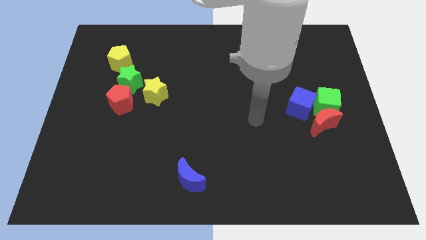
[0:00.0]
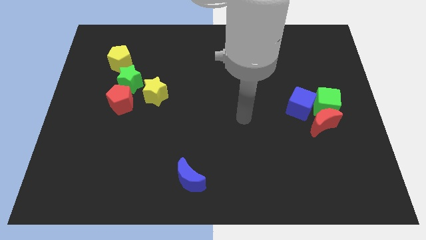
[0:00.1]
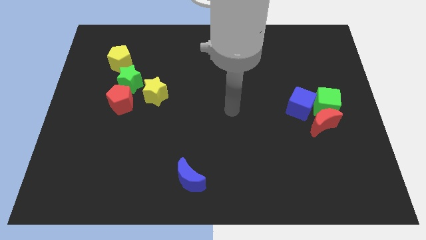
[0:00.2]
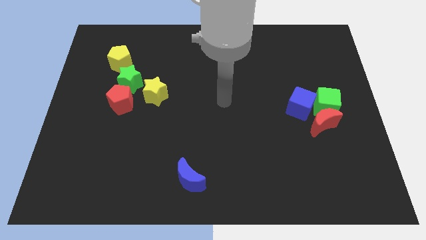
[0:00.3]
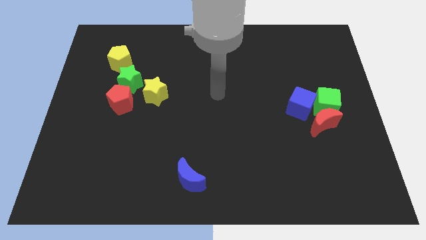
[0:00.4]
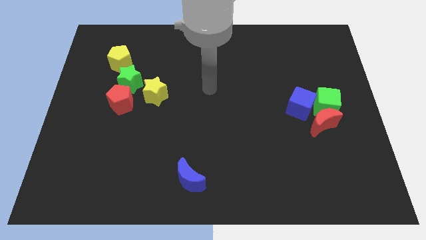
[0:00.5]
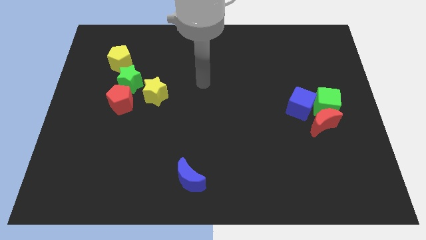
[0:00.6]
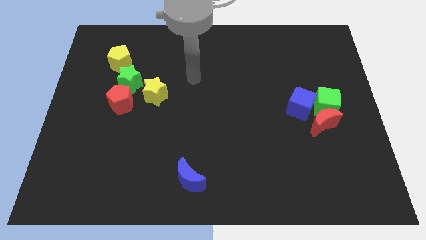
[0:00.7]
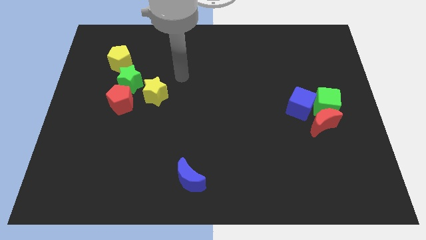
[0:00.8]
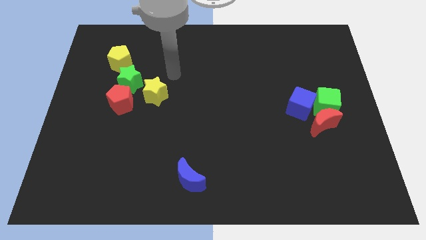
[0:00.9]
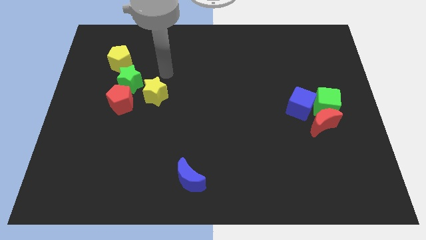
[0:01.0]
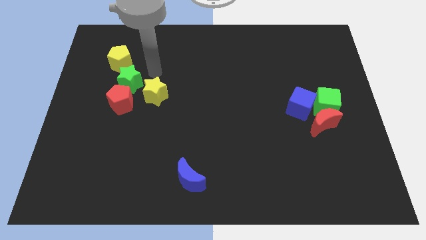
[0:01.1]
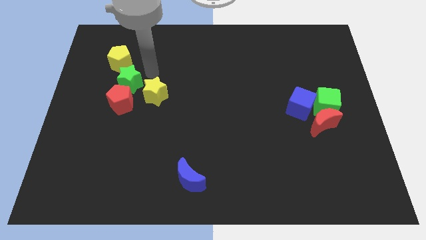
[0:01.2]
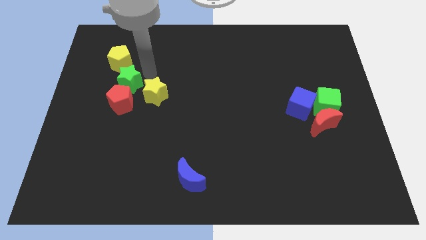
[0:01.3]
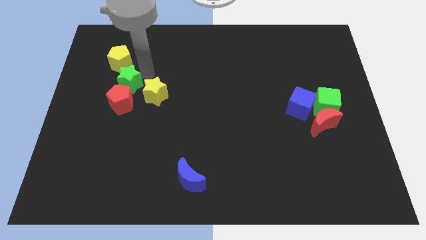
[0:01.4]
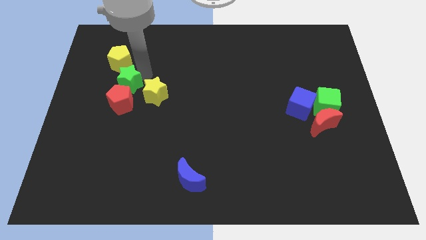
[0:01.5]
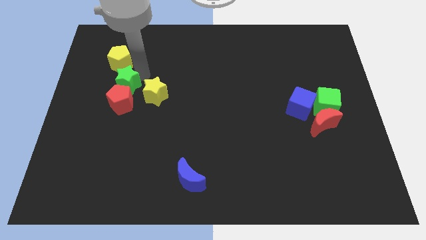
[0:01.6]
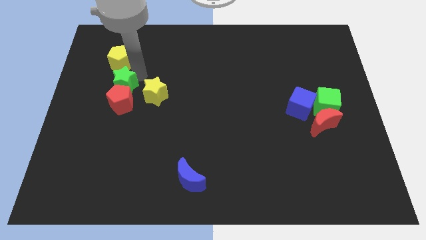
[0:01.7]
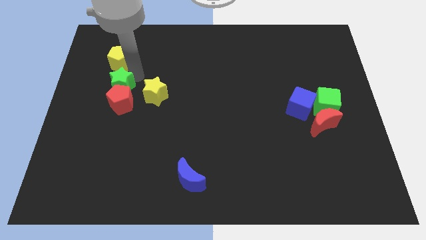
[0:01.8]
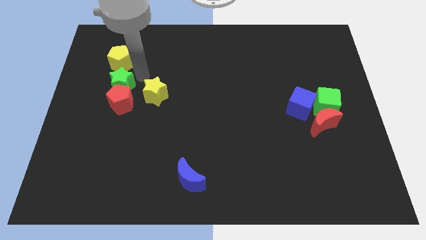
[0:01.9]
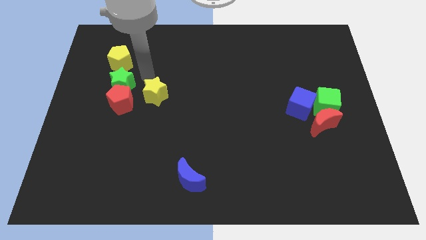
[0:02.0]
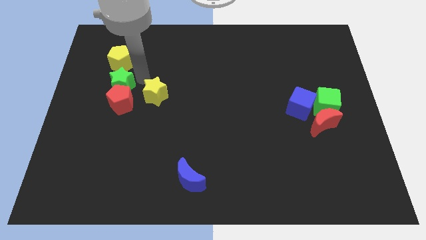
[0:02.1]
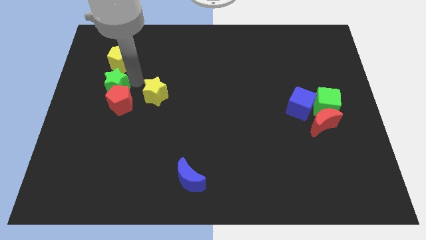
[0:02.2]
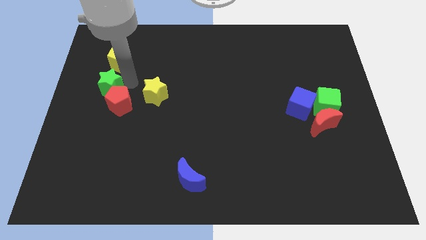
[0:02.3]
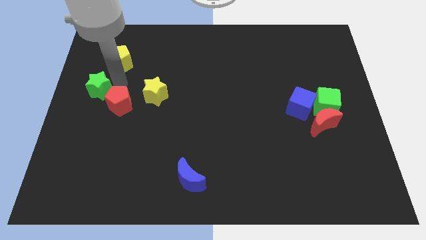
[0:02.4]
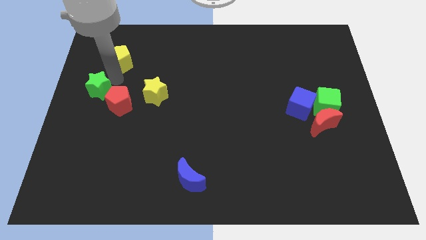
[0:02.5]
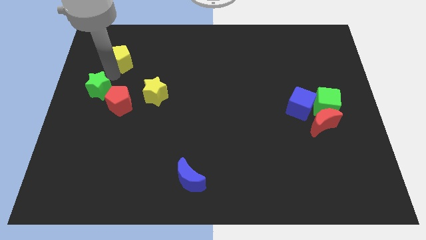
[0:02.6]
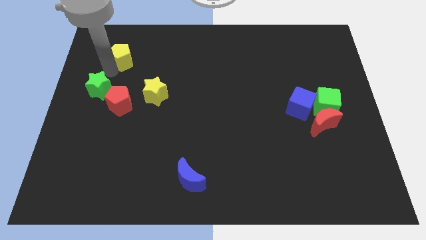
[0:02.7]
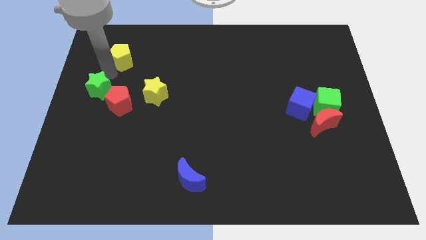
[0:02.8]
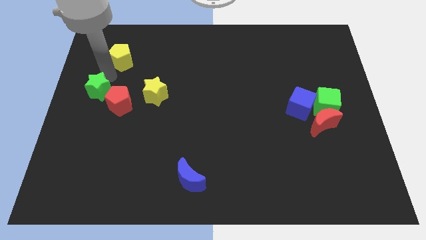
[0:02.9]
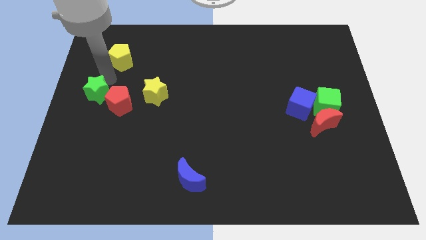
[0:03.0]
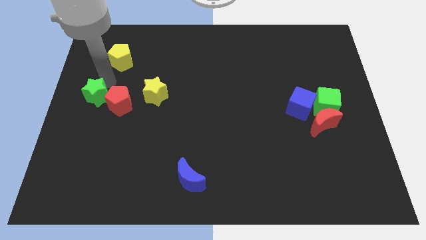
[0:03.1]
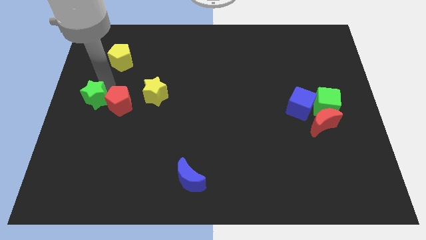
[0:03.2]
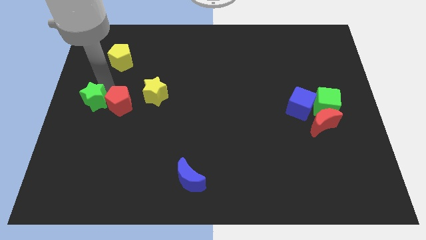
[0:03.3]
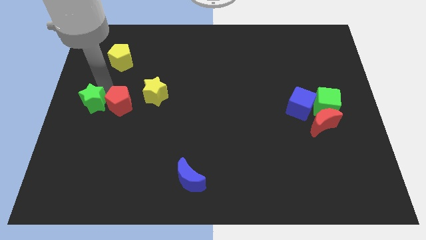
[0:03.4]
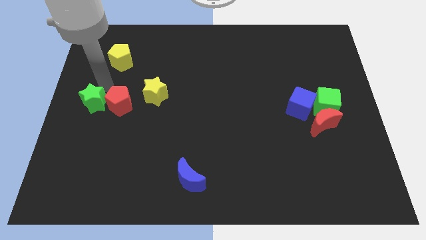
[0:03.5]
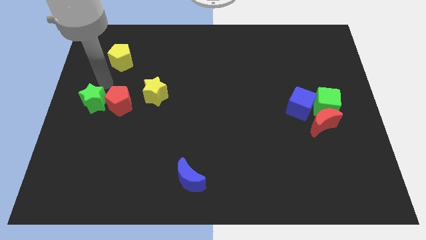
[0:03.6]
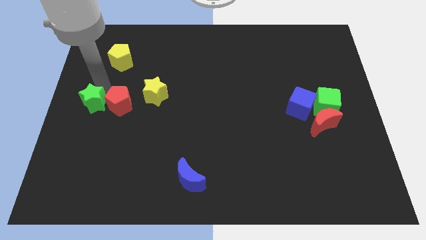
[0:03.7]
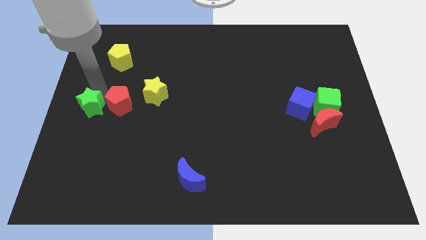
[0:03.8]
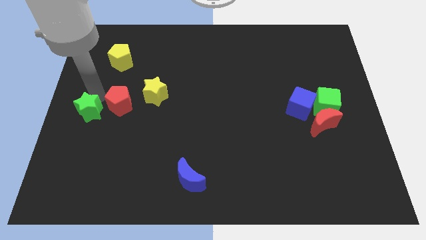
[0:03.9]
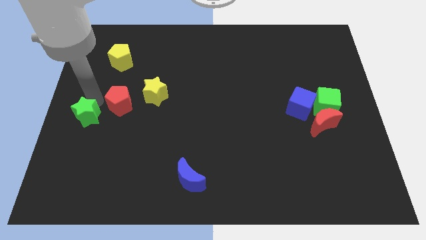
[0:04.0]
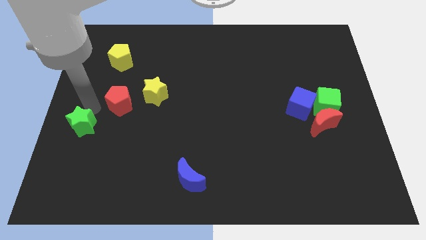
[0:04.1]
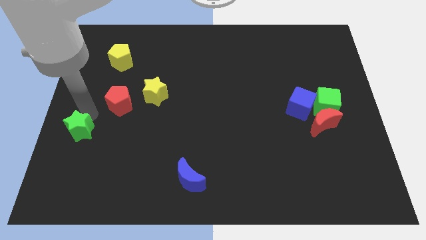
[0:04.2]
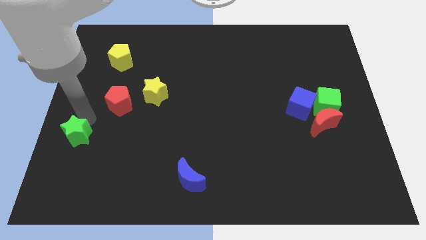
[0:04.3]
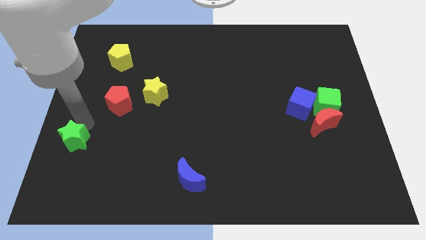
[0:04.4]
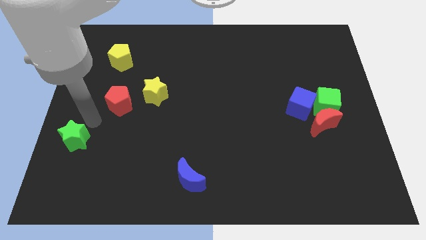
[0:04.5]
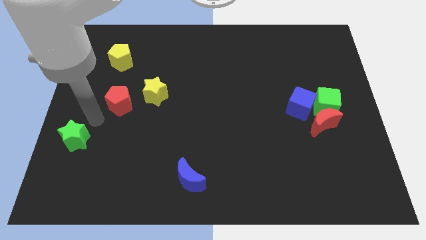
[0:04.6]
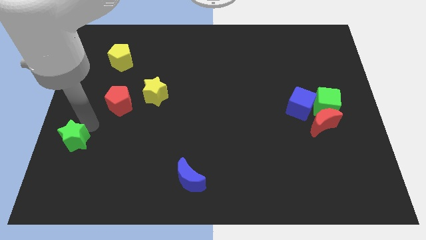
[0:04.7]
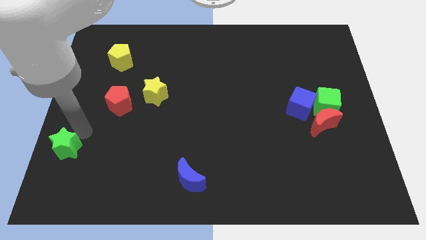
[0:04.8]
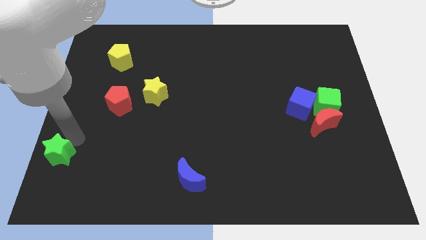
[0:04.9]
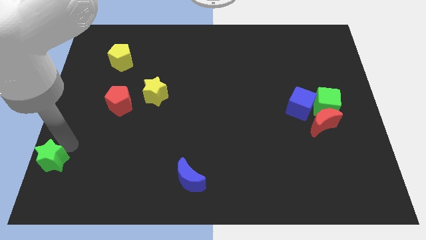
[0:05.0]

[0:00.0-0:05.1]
move the green star to the lower left corner

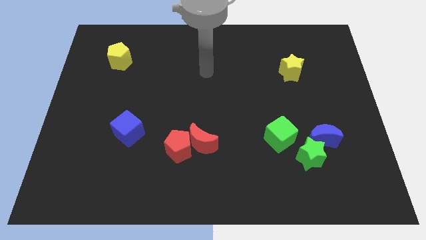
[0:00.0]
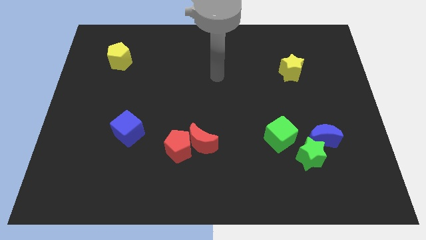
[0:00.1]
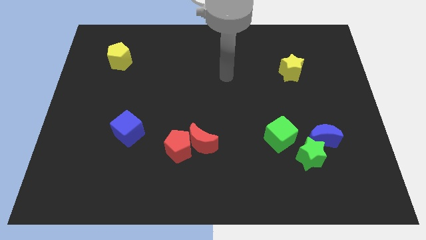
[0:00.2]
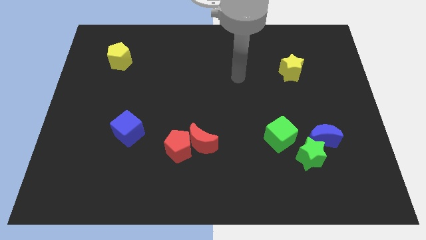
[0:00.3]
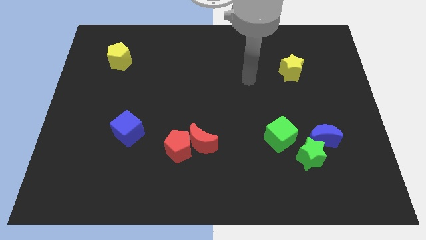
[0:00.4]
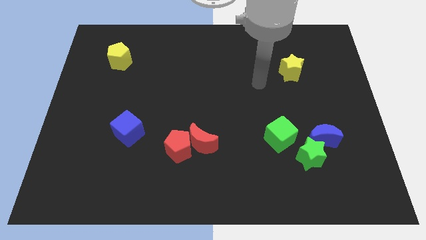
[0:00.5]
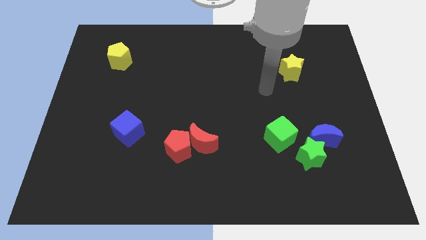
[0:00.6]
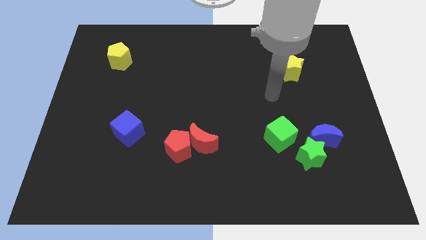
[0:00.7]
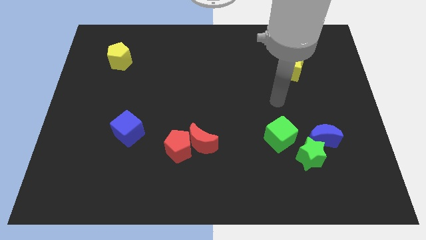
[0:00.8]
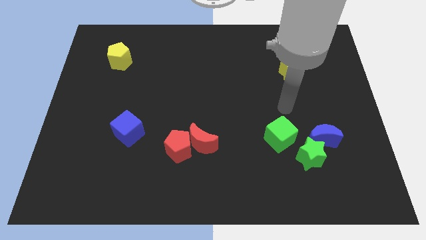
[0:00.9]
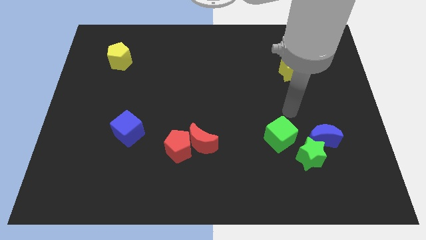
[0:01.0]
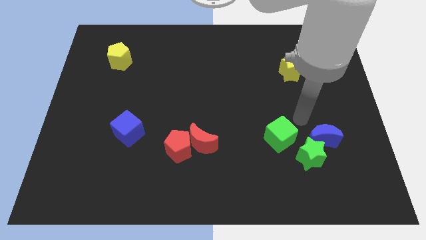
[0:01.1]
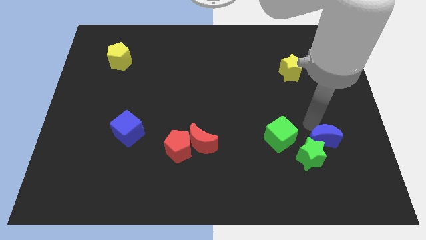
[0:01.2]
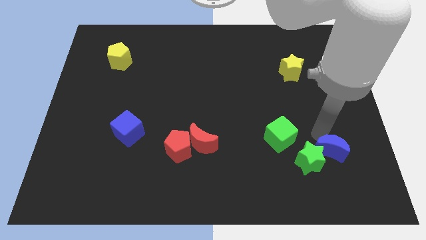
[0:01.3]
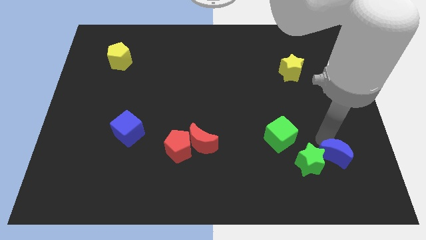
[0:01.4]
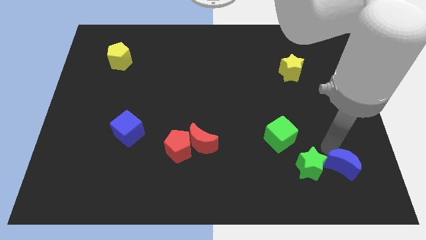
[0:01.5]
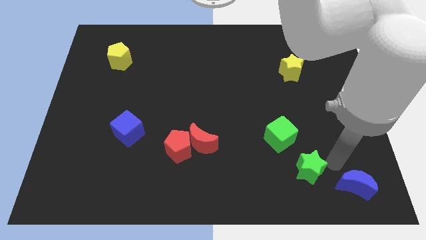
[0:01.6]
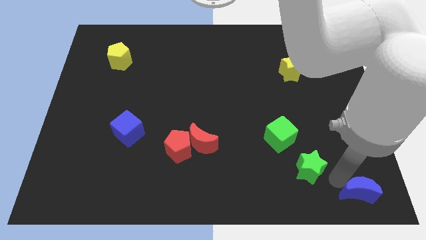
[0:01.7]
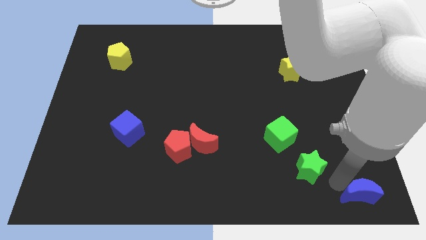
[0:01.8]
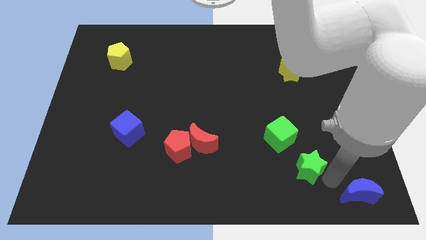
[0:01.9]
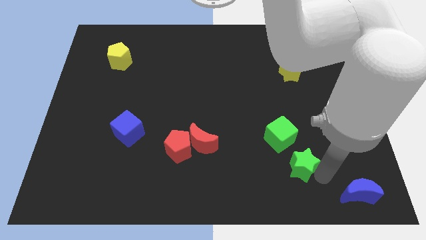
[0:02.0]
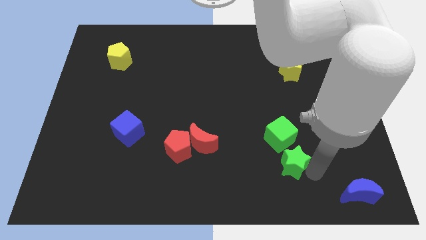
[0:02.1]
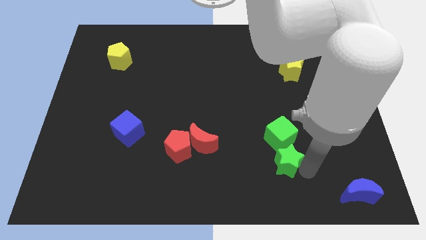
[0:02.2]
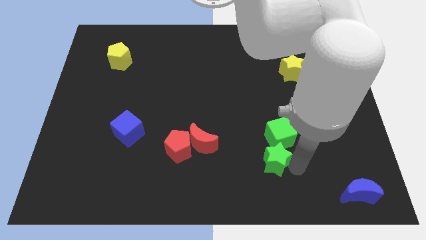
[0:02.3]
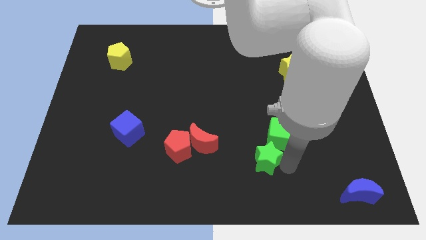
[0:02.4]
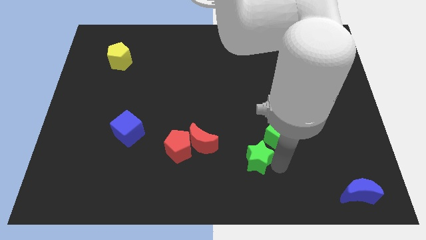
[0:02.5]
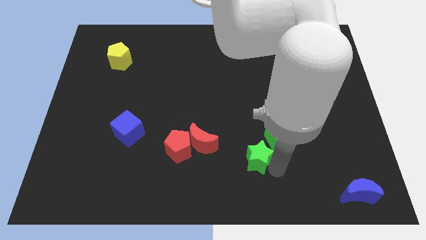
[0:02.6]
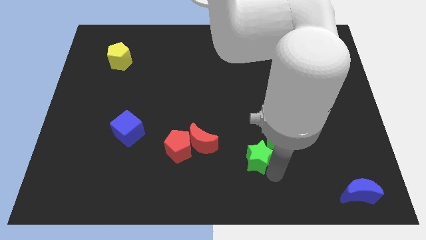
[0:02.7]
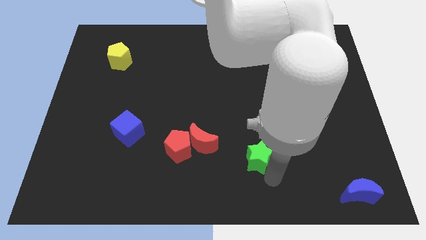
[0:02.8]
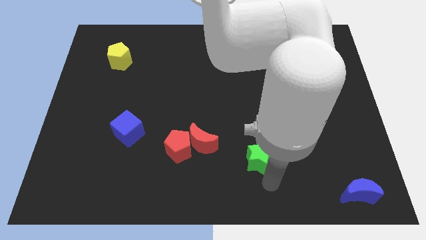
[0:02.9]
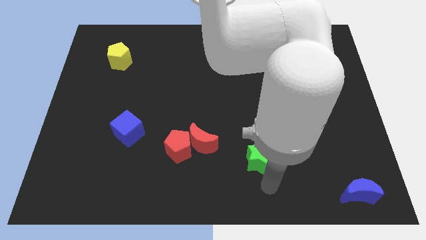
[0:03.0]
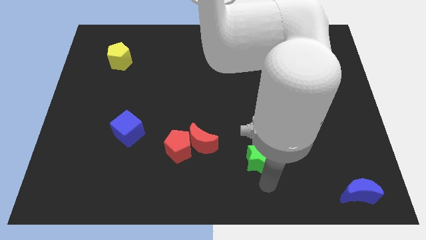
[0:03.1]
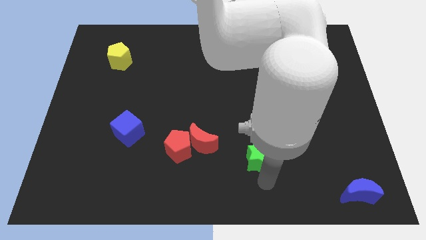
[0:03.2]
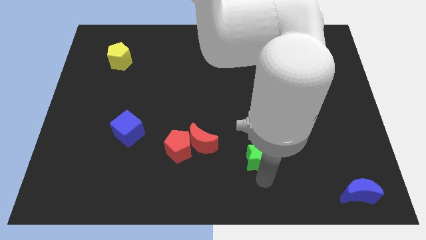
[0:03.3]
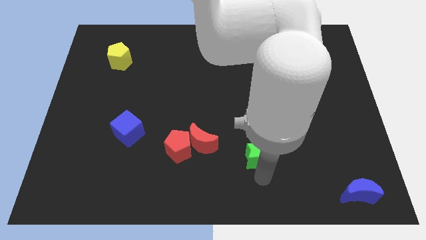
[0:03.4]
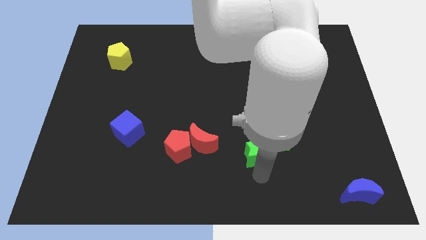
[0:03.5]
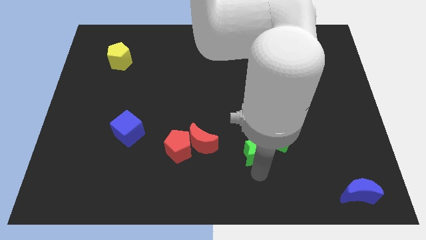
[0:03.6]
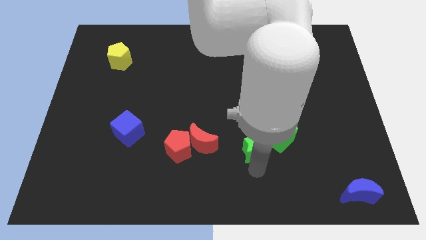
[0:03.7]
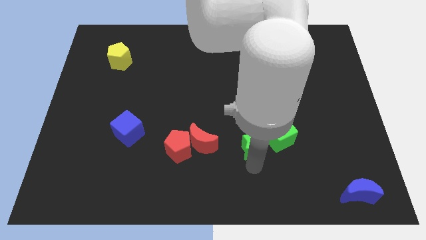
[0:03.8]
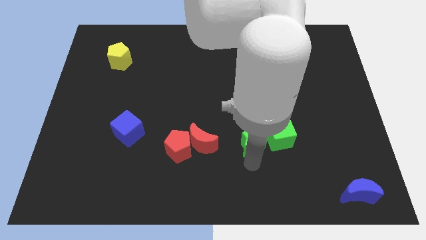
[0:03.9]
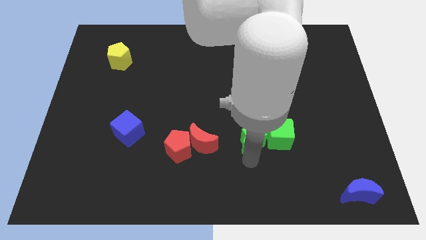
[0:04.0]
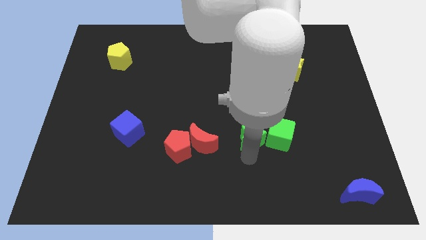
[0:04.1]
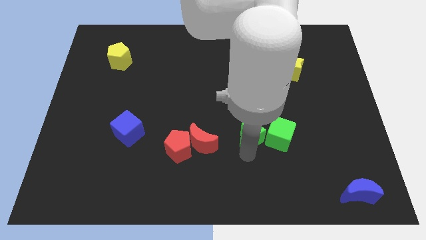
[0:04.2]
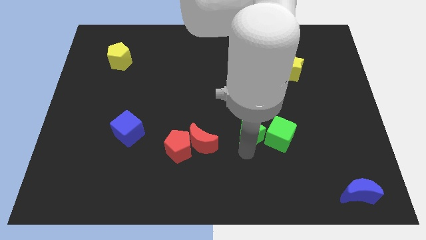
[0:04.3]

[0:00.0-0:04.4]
slide the green star to the center
